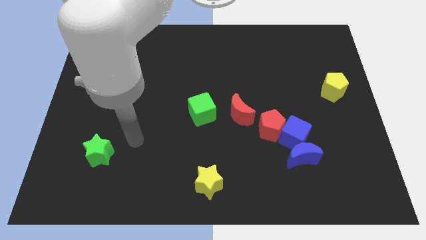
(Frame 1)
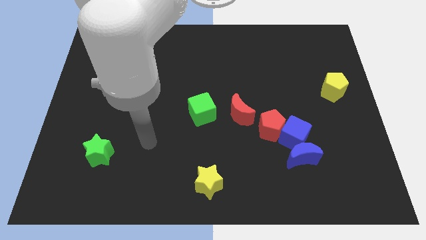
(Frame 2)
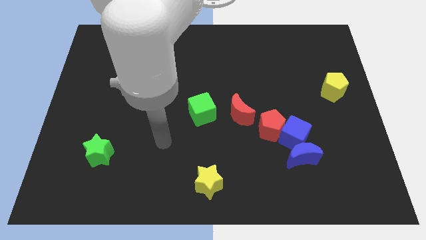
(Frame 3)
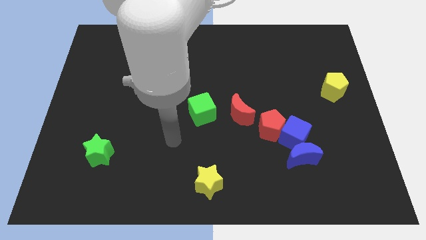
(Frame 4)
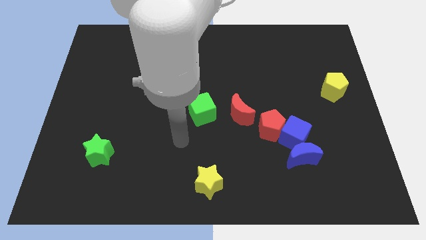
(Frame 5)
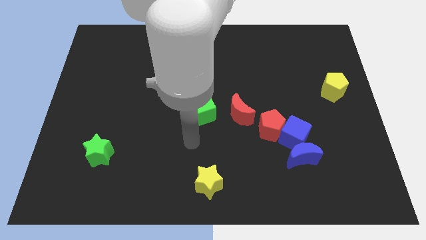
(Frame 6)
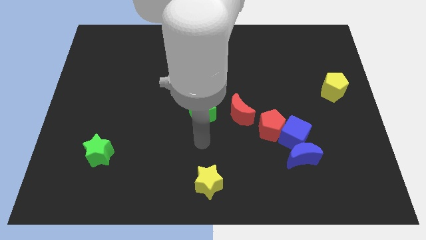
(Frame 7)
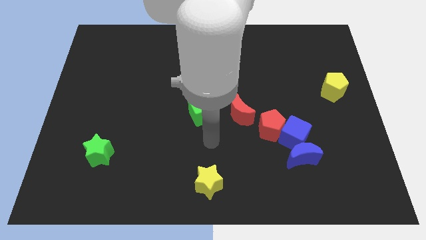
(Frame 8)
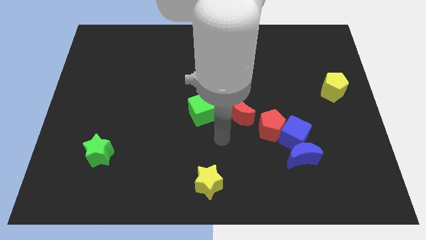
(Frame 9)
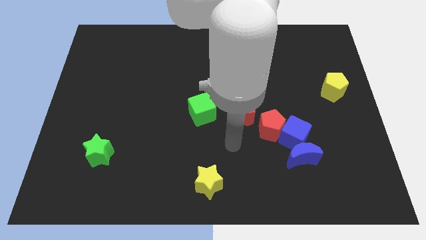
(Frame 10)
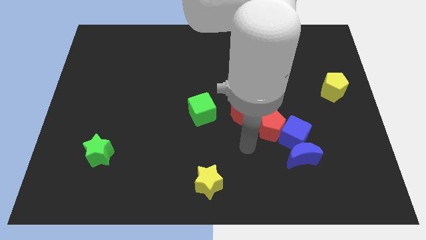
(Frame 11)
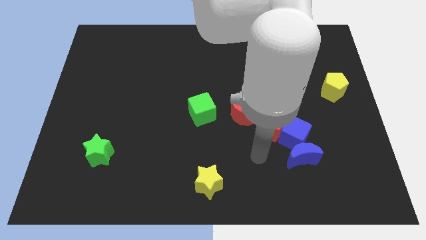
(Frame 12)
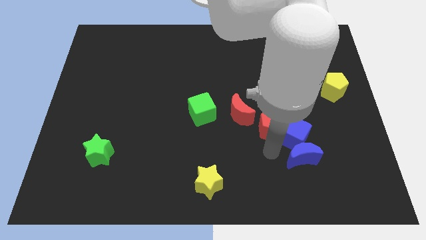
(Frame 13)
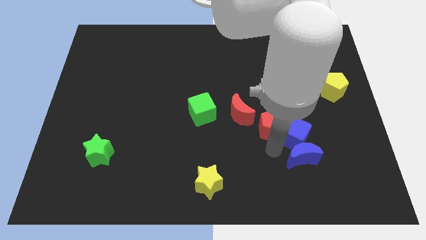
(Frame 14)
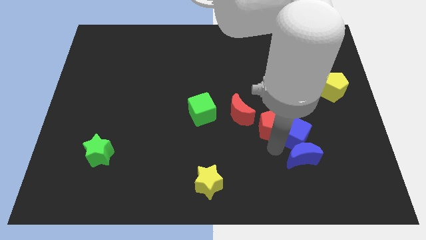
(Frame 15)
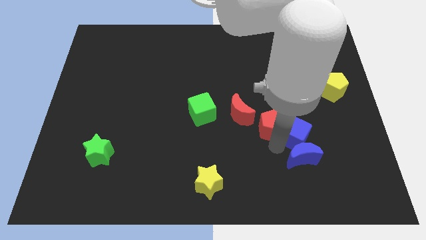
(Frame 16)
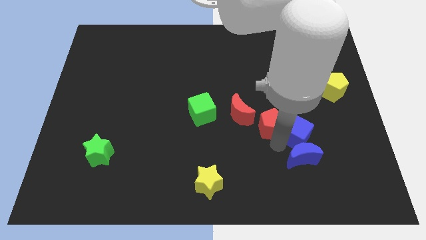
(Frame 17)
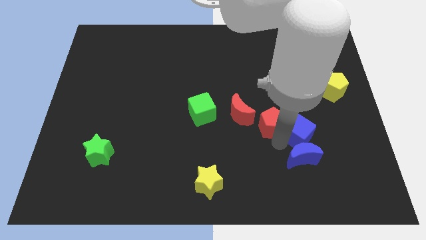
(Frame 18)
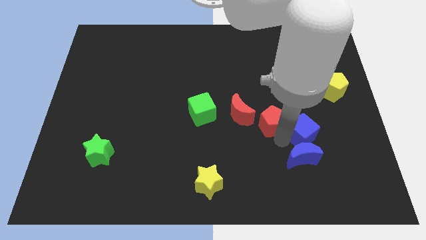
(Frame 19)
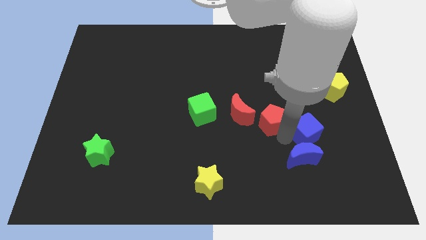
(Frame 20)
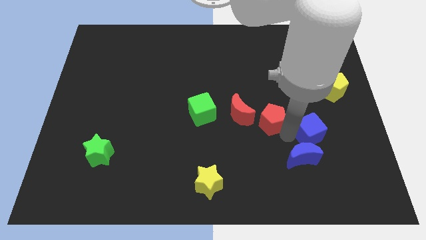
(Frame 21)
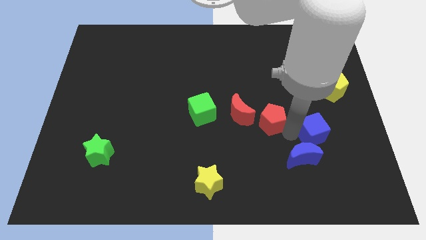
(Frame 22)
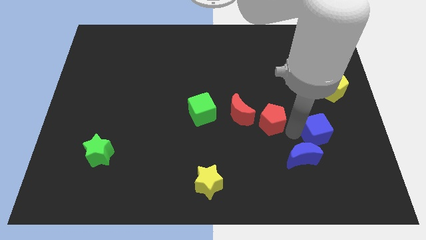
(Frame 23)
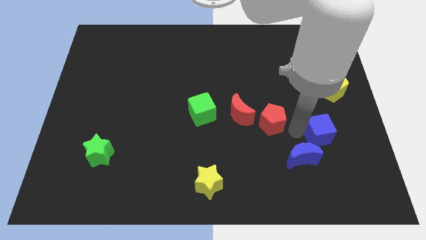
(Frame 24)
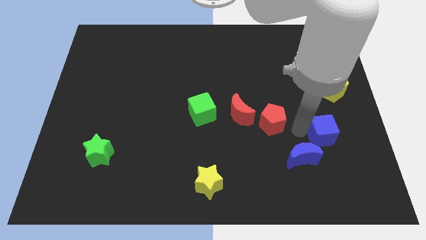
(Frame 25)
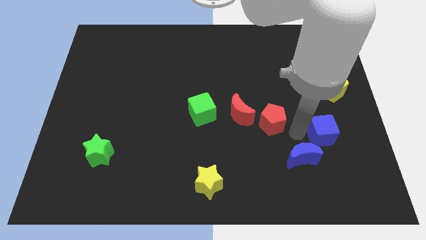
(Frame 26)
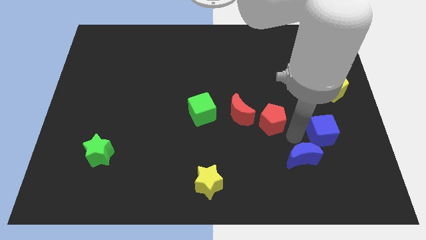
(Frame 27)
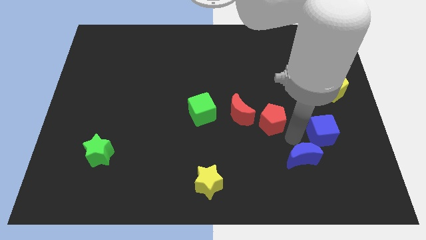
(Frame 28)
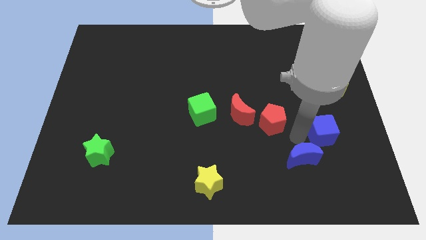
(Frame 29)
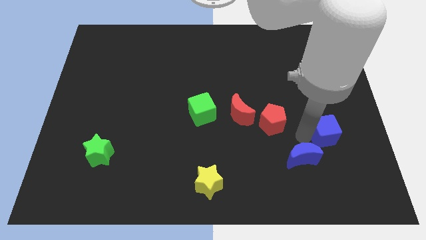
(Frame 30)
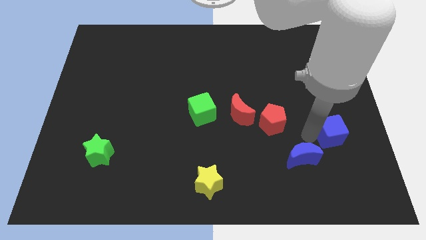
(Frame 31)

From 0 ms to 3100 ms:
pull the blue cube apart from the blue moon and red pentagon

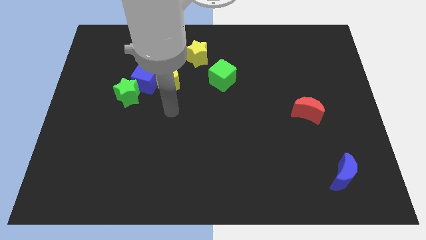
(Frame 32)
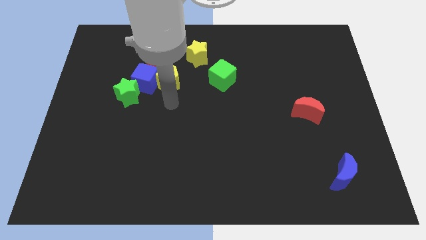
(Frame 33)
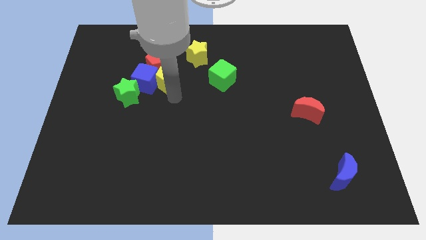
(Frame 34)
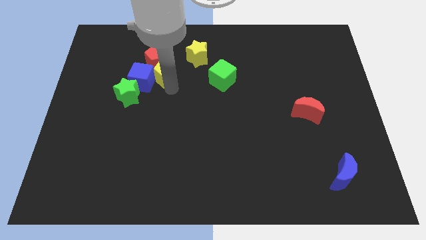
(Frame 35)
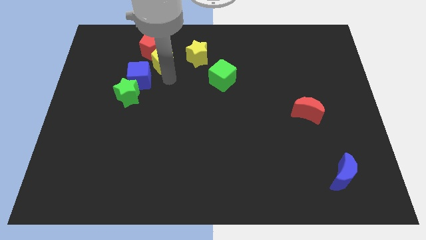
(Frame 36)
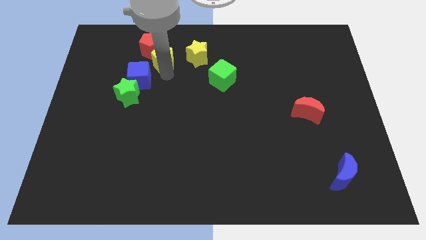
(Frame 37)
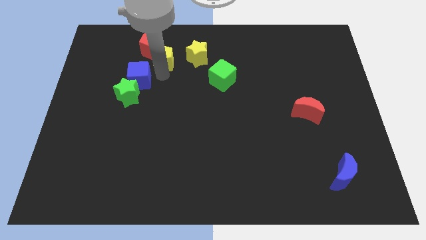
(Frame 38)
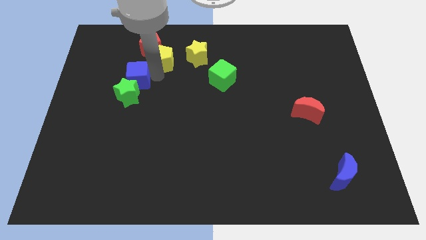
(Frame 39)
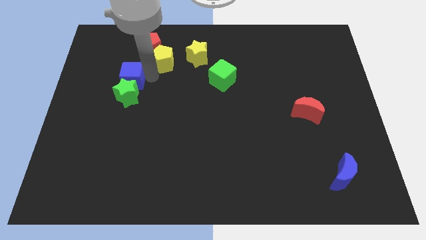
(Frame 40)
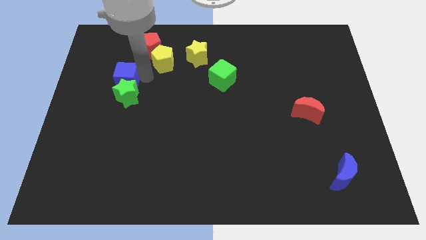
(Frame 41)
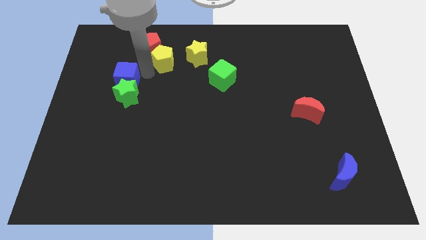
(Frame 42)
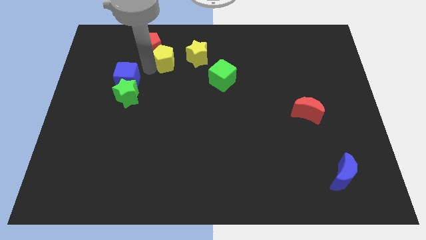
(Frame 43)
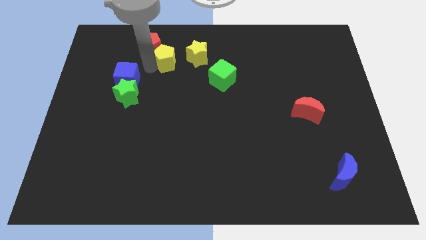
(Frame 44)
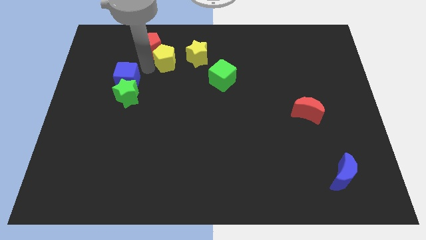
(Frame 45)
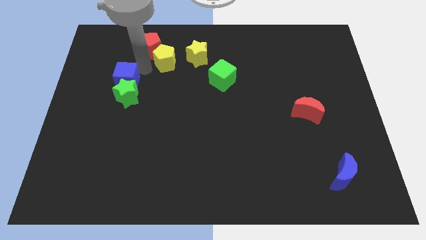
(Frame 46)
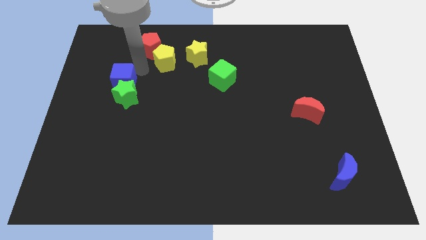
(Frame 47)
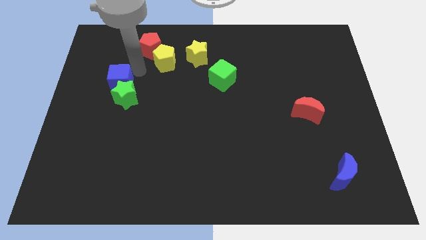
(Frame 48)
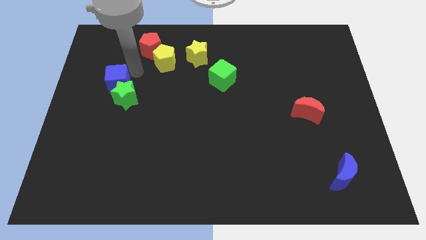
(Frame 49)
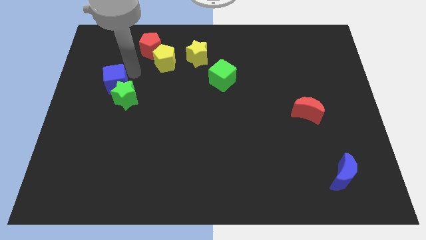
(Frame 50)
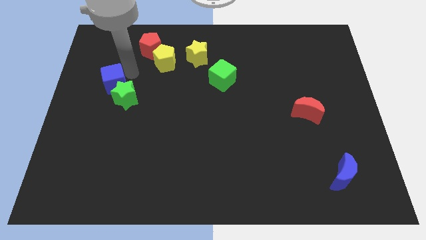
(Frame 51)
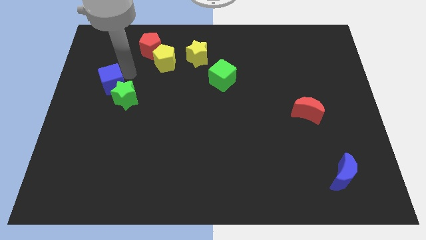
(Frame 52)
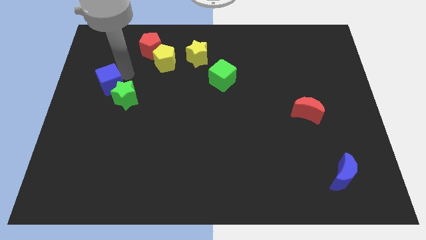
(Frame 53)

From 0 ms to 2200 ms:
separate the blue cube from the group

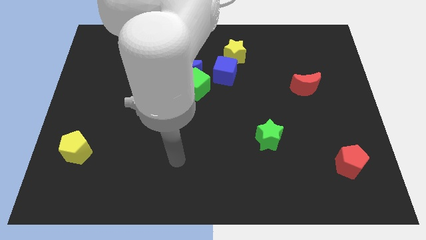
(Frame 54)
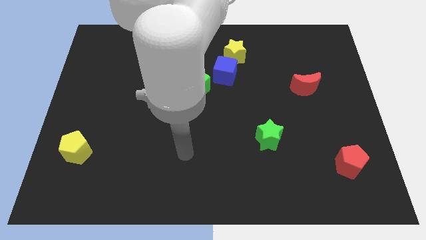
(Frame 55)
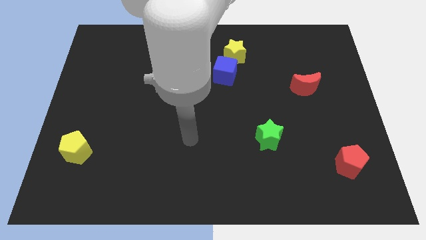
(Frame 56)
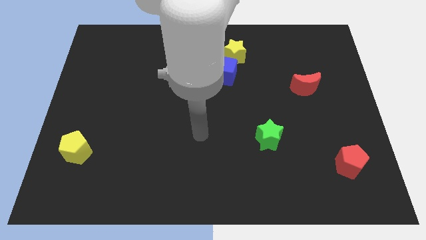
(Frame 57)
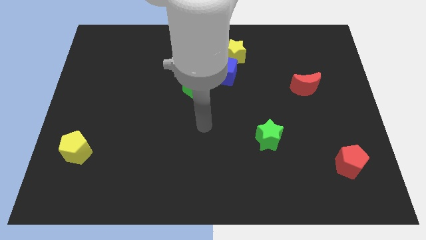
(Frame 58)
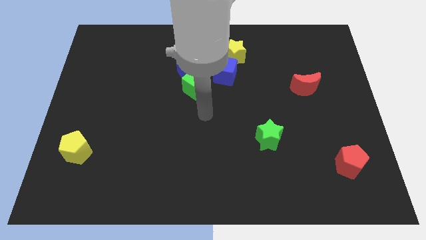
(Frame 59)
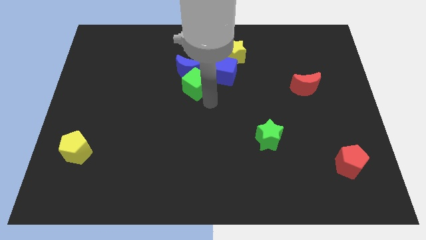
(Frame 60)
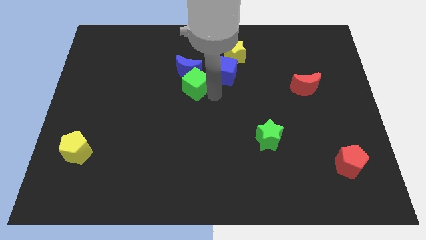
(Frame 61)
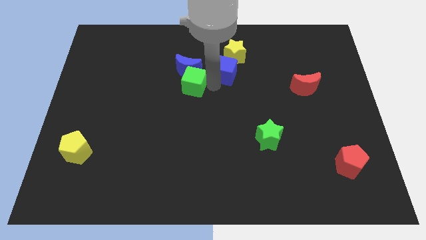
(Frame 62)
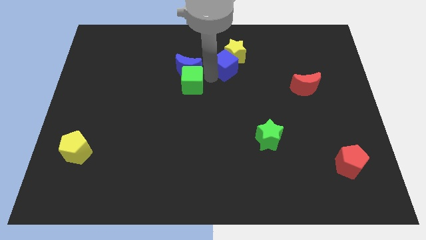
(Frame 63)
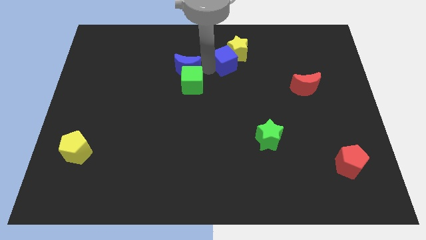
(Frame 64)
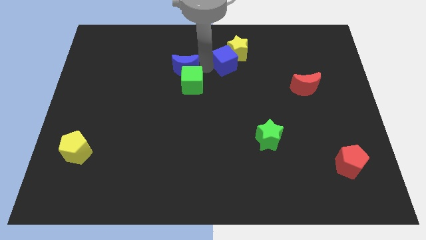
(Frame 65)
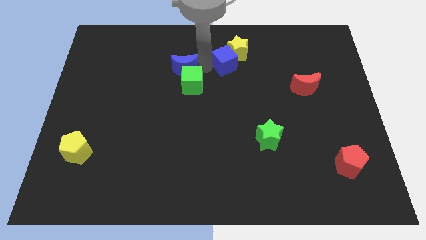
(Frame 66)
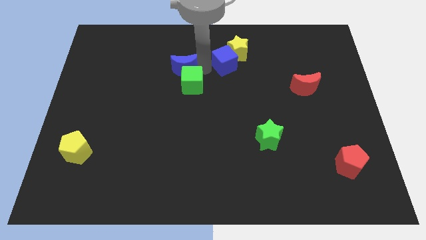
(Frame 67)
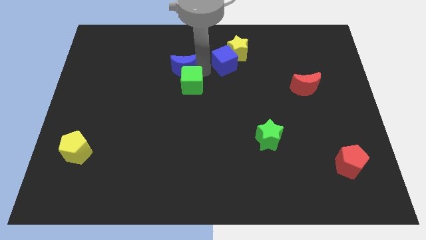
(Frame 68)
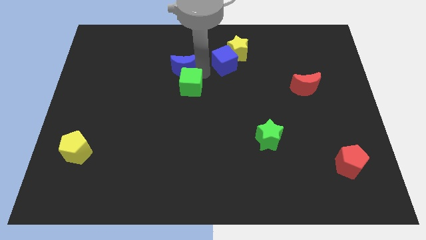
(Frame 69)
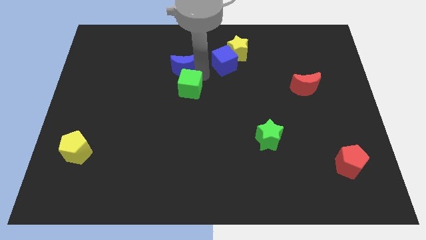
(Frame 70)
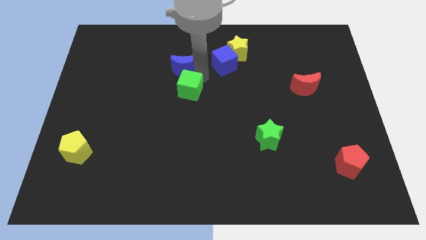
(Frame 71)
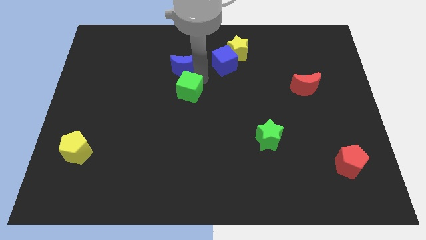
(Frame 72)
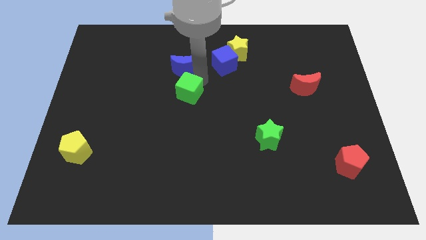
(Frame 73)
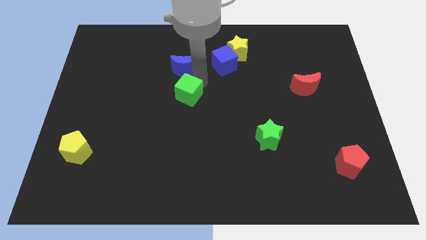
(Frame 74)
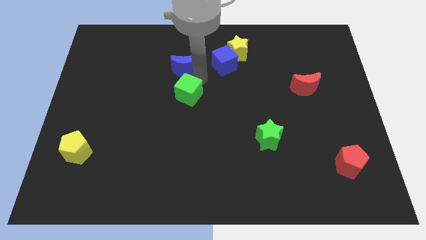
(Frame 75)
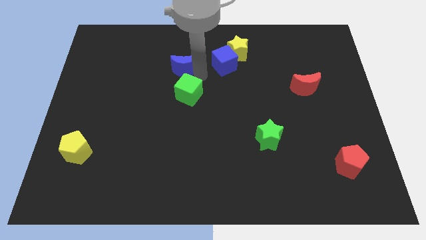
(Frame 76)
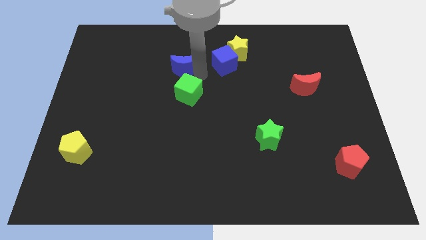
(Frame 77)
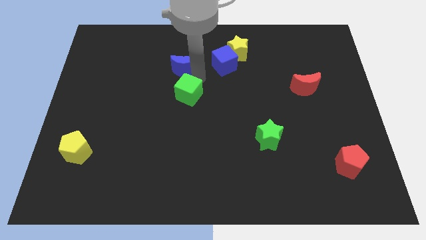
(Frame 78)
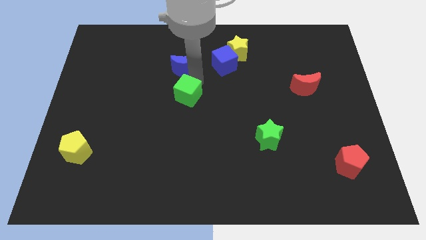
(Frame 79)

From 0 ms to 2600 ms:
pull the green cube apart from the blue moon and blue cube

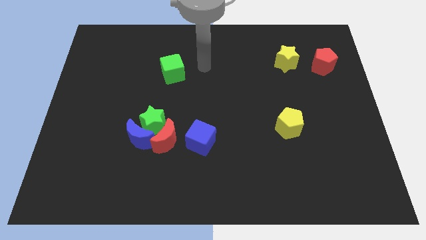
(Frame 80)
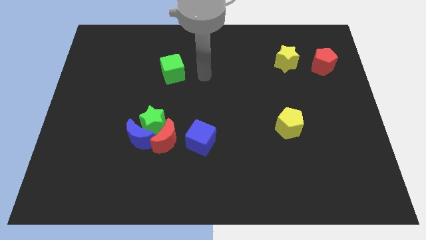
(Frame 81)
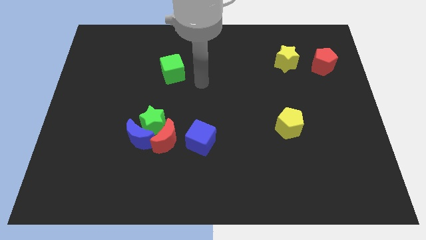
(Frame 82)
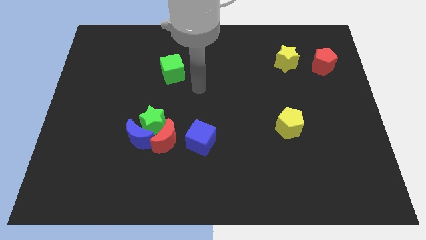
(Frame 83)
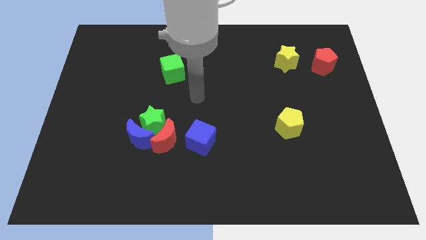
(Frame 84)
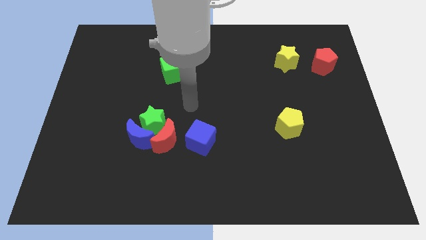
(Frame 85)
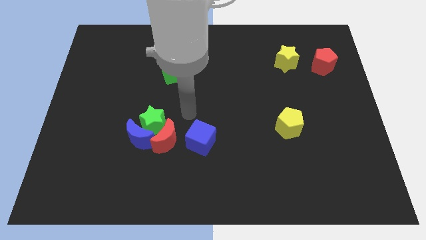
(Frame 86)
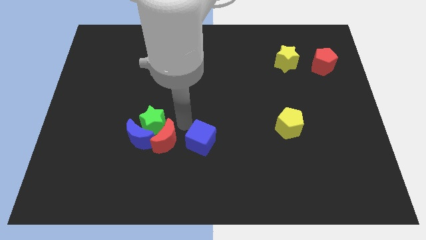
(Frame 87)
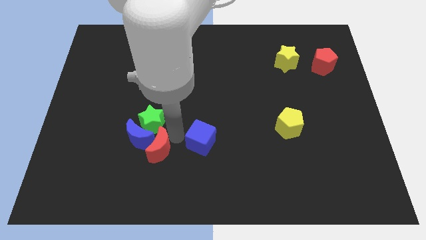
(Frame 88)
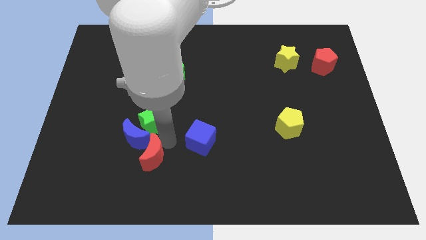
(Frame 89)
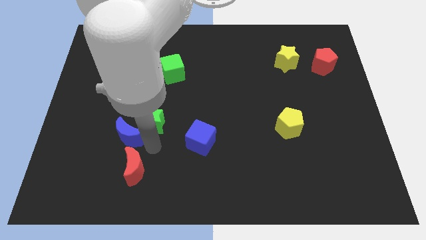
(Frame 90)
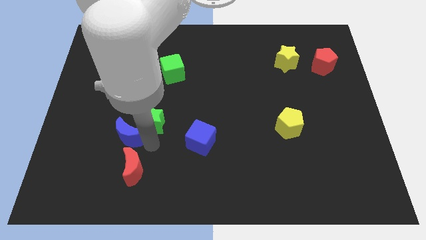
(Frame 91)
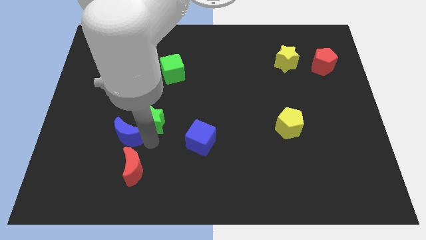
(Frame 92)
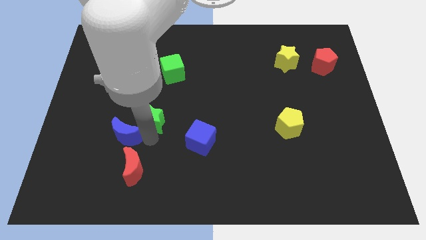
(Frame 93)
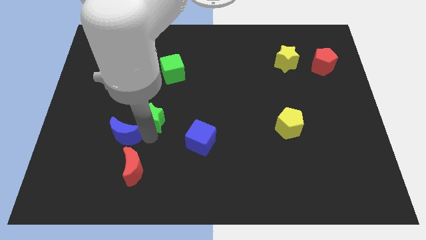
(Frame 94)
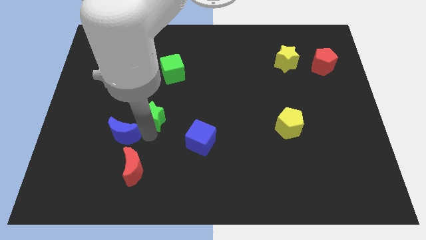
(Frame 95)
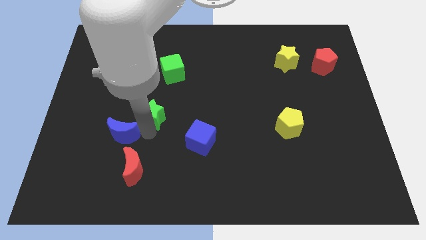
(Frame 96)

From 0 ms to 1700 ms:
separate the green star from the blue moon and red moon
